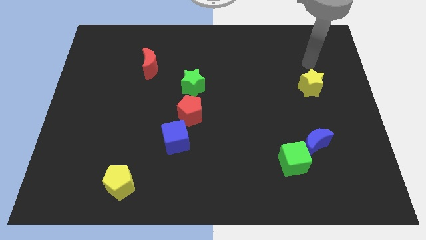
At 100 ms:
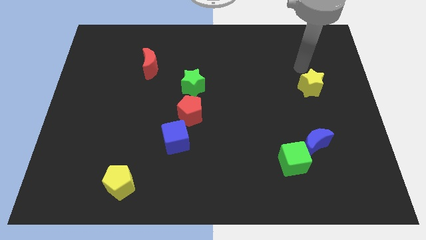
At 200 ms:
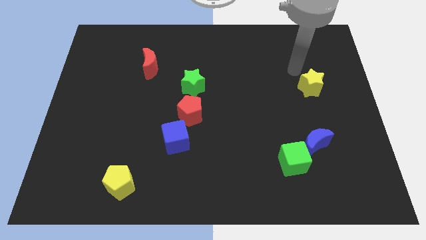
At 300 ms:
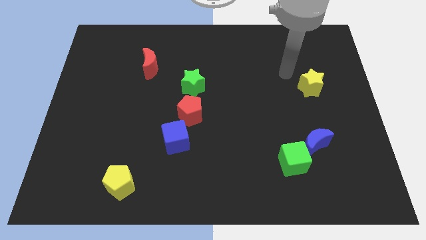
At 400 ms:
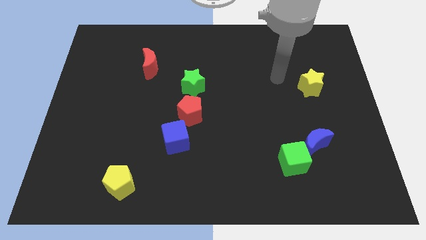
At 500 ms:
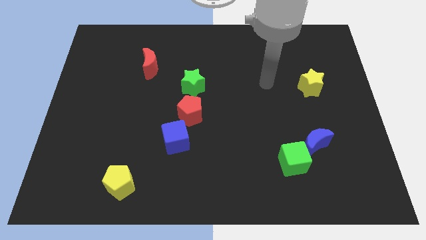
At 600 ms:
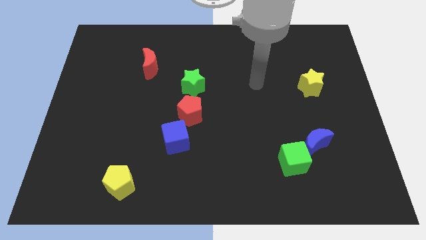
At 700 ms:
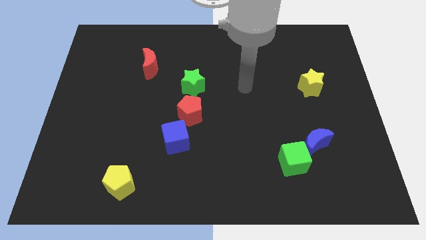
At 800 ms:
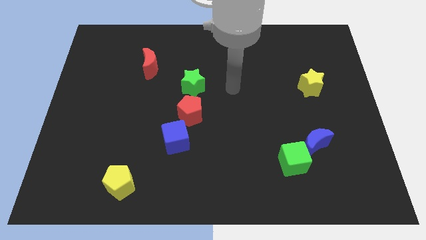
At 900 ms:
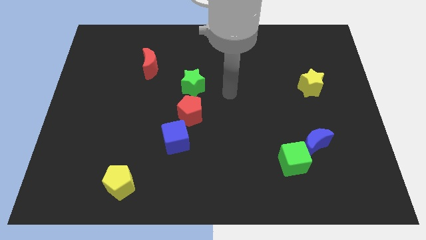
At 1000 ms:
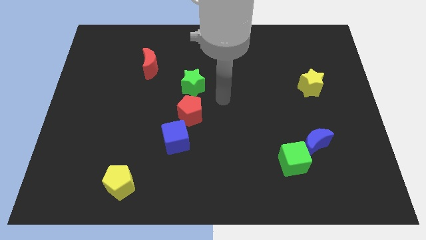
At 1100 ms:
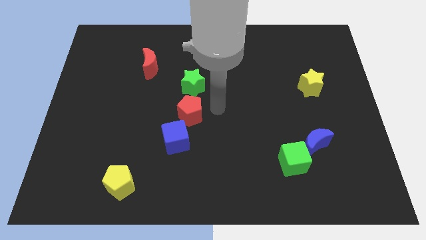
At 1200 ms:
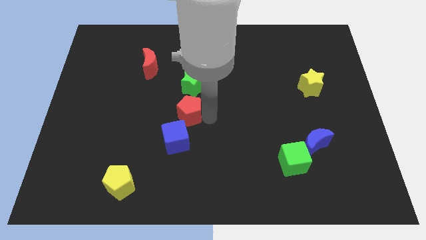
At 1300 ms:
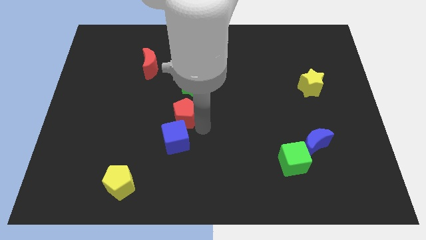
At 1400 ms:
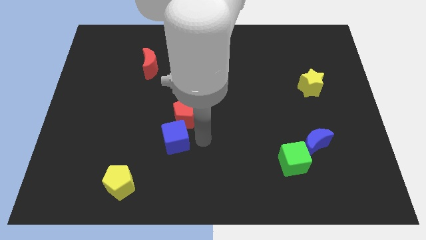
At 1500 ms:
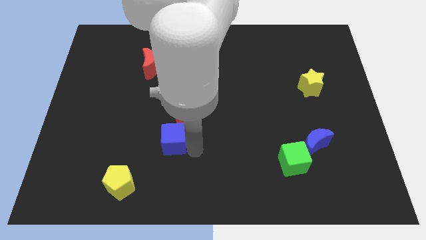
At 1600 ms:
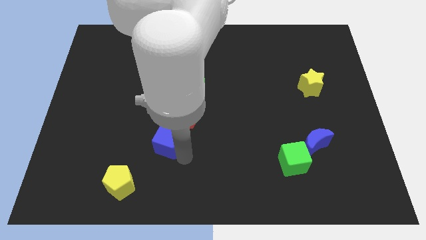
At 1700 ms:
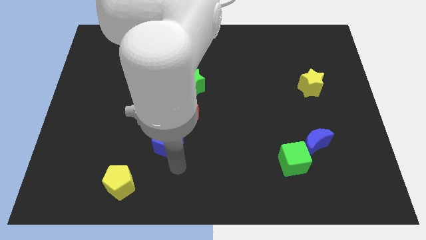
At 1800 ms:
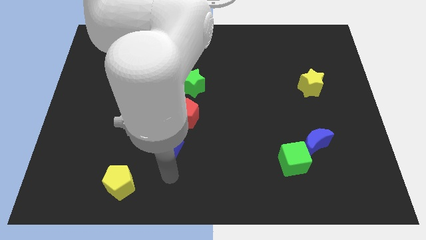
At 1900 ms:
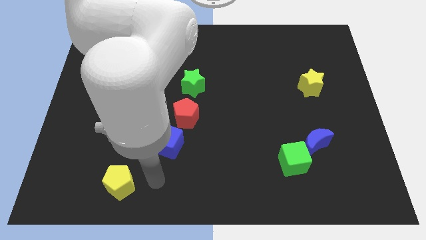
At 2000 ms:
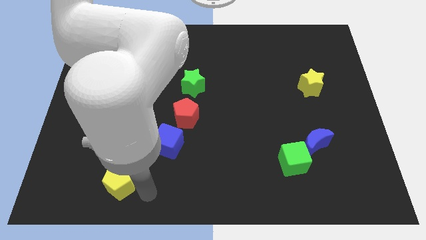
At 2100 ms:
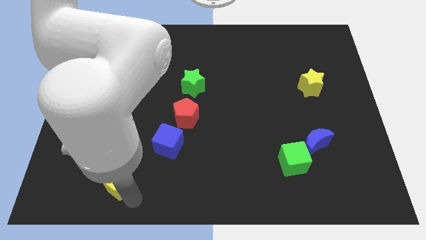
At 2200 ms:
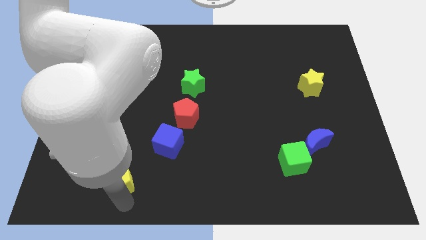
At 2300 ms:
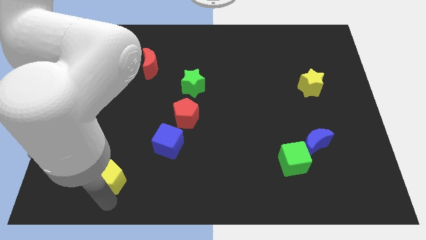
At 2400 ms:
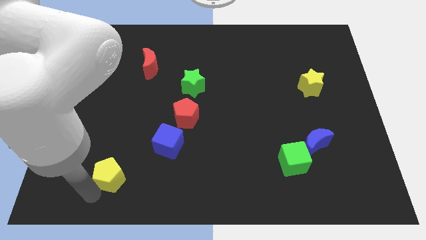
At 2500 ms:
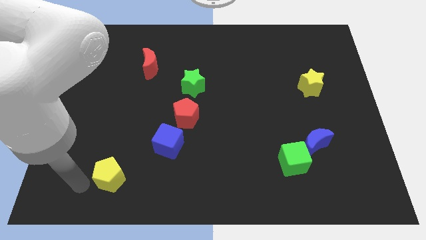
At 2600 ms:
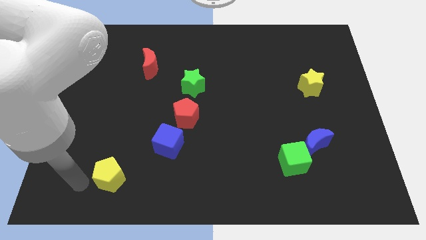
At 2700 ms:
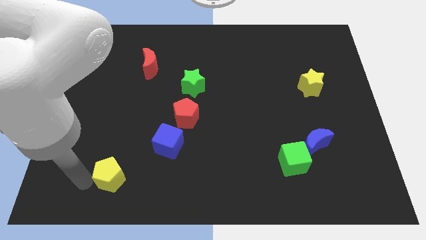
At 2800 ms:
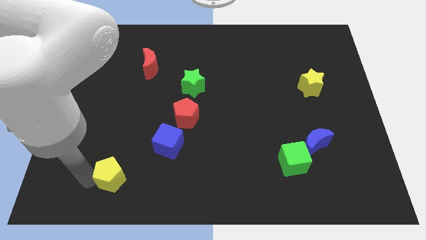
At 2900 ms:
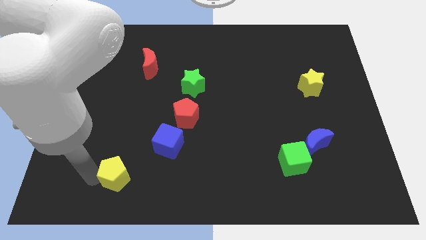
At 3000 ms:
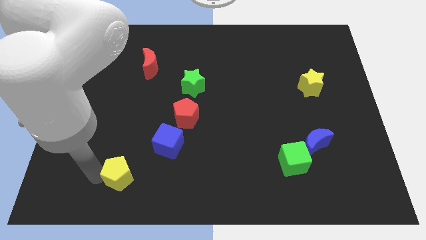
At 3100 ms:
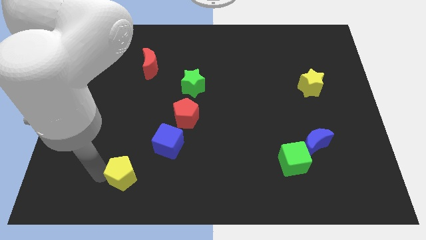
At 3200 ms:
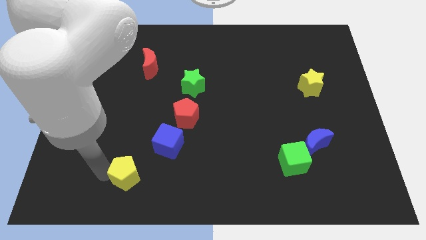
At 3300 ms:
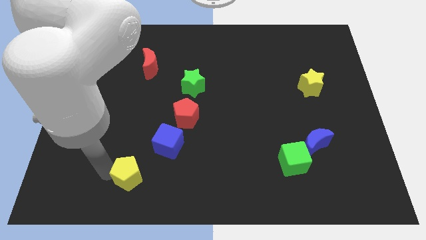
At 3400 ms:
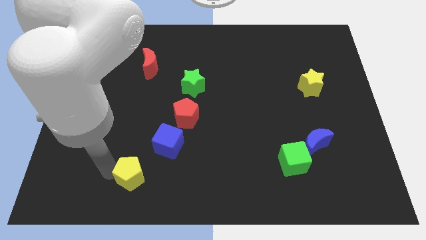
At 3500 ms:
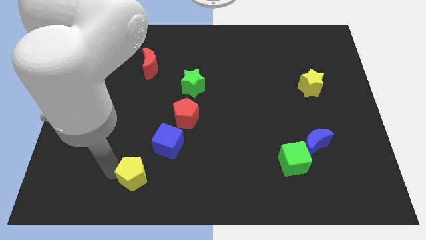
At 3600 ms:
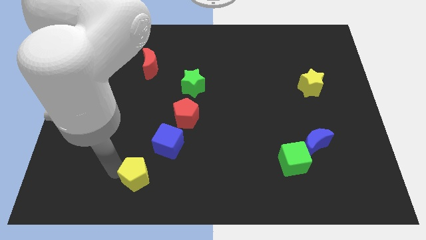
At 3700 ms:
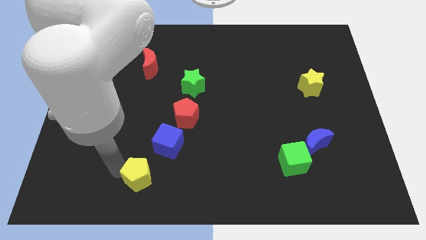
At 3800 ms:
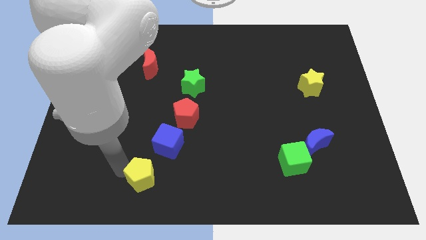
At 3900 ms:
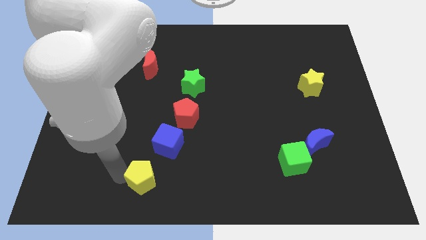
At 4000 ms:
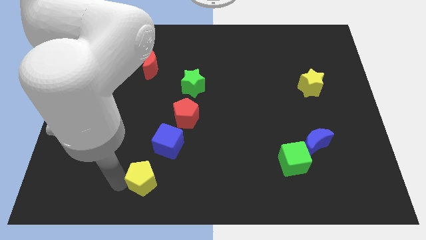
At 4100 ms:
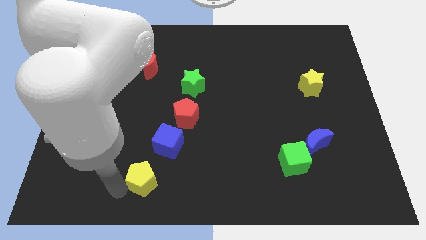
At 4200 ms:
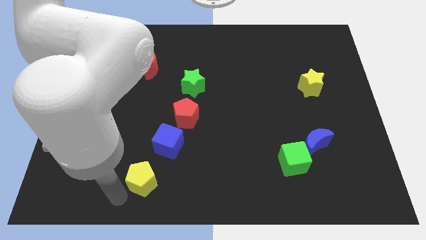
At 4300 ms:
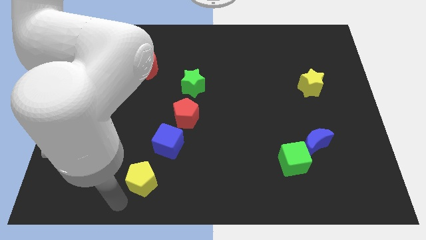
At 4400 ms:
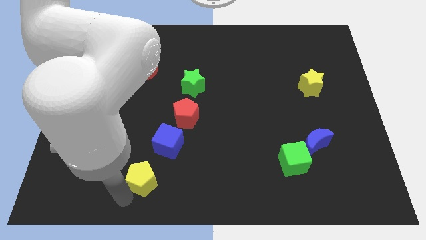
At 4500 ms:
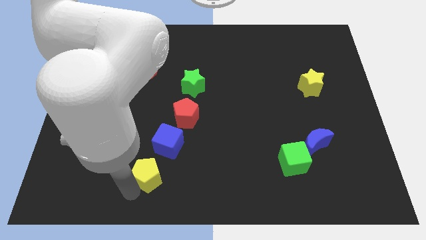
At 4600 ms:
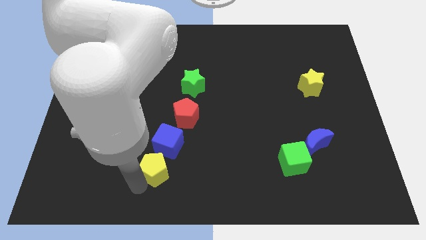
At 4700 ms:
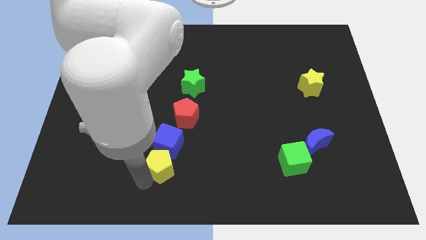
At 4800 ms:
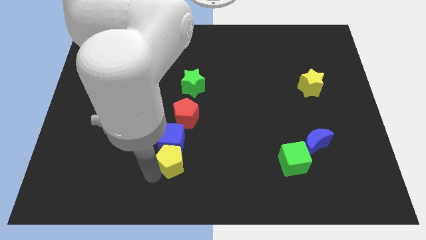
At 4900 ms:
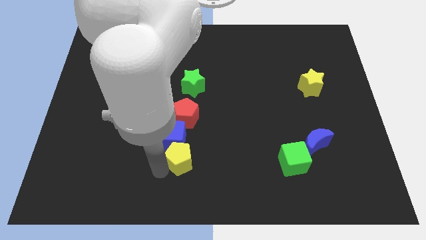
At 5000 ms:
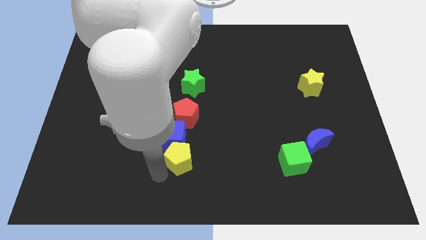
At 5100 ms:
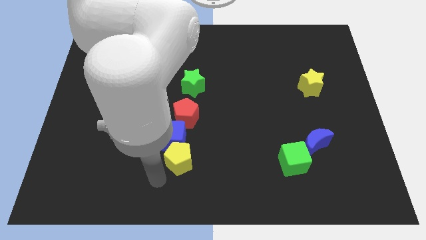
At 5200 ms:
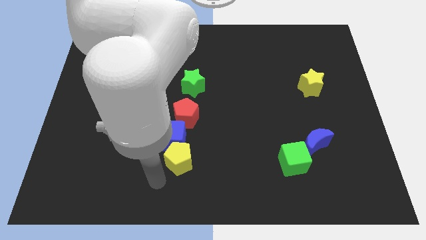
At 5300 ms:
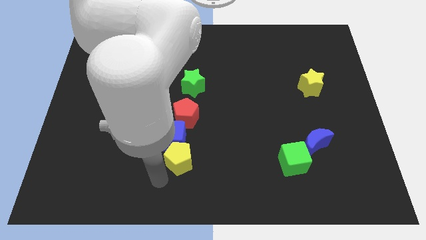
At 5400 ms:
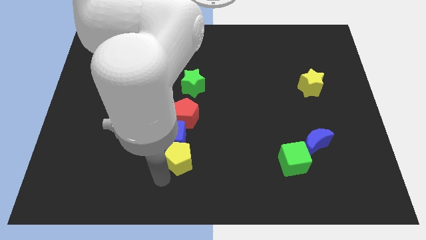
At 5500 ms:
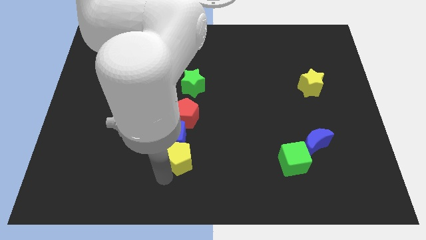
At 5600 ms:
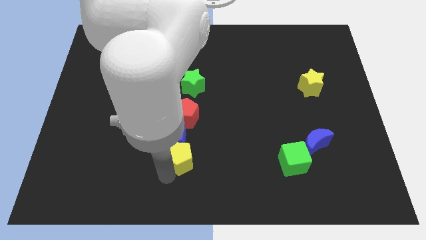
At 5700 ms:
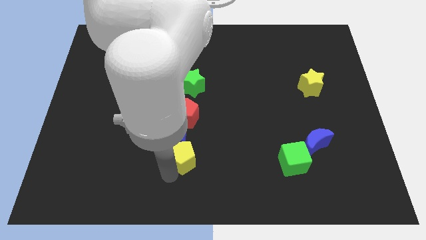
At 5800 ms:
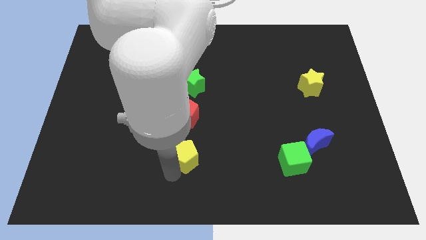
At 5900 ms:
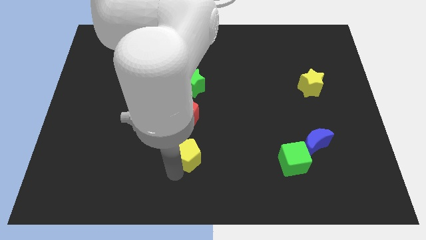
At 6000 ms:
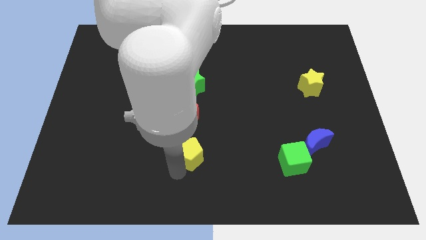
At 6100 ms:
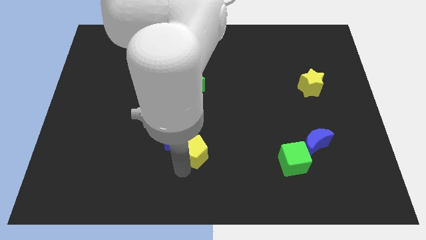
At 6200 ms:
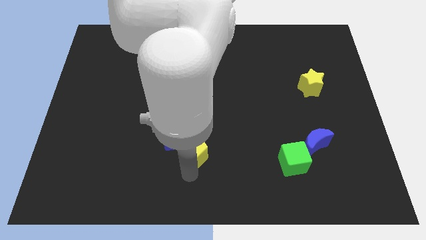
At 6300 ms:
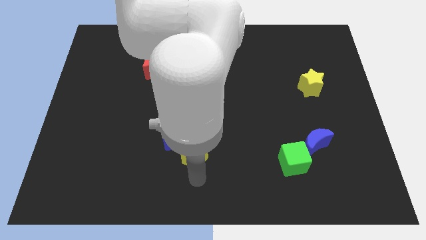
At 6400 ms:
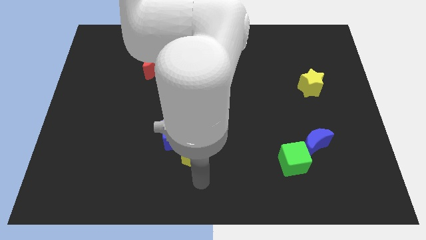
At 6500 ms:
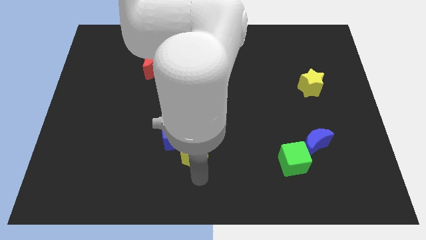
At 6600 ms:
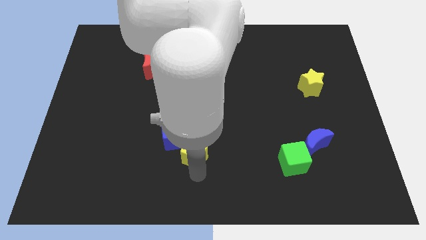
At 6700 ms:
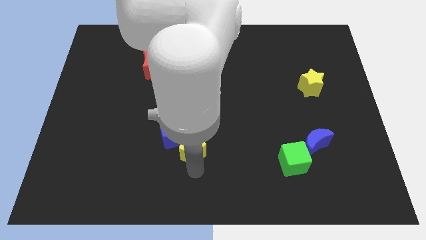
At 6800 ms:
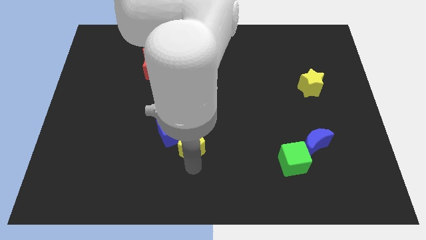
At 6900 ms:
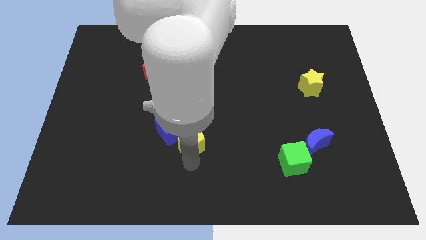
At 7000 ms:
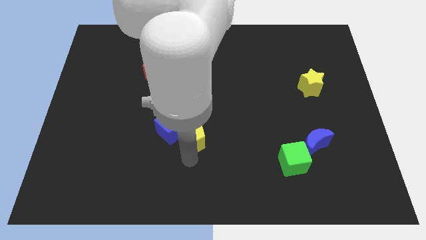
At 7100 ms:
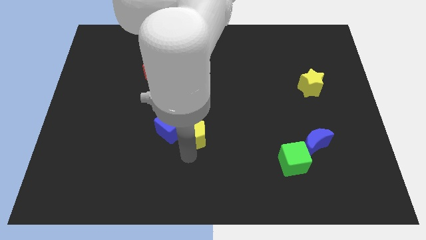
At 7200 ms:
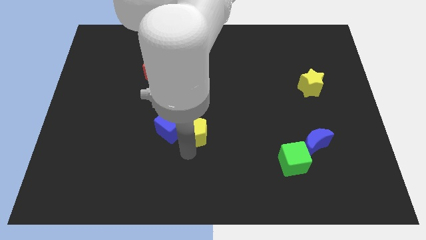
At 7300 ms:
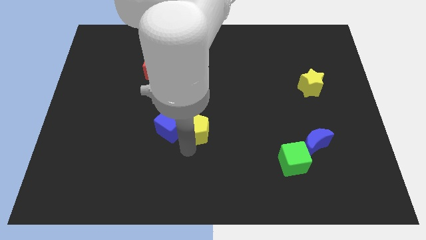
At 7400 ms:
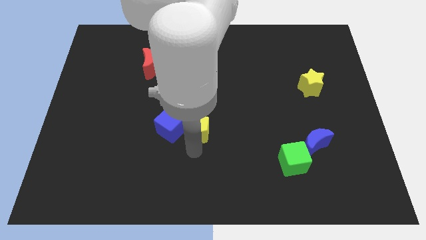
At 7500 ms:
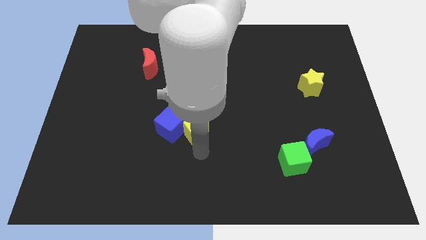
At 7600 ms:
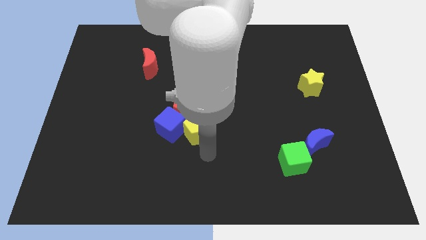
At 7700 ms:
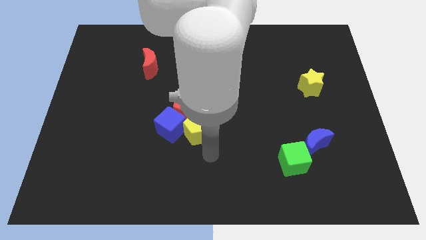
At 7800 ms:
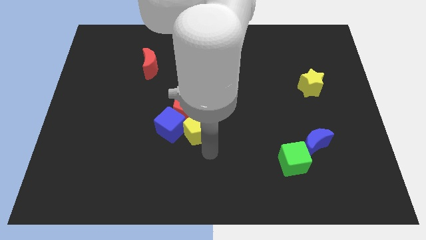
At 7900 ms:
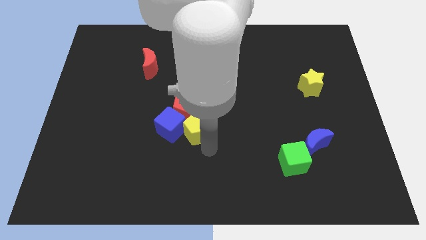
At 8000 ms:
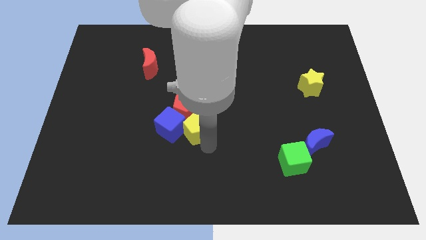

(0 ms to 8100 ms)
push the yellow pentagon close to the red pentagon
